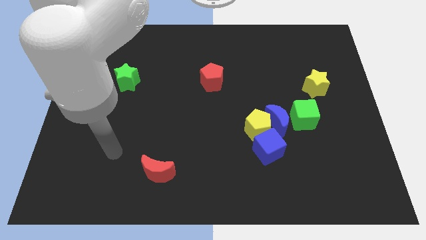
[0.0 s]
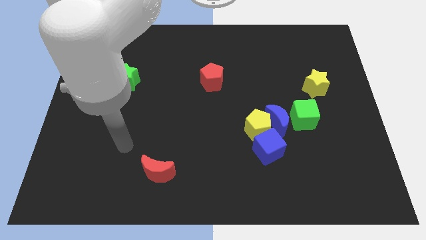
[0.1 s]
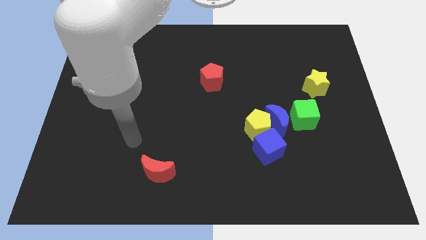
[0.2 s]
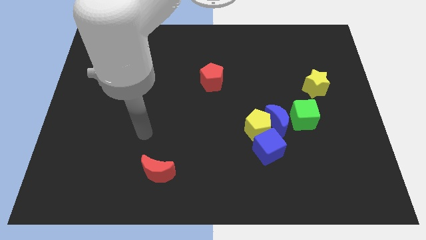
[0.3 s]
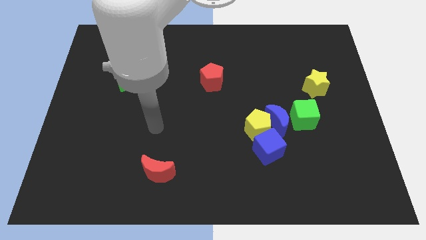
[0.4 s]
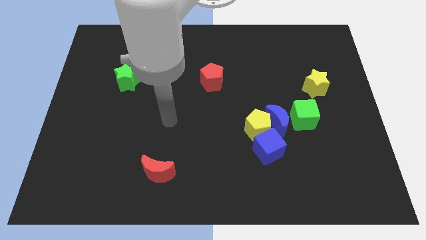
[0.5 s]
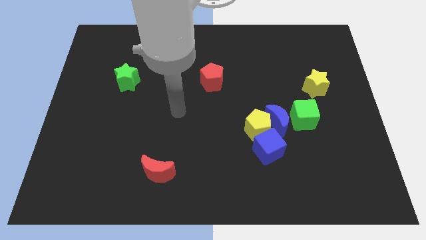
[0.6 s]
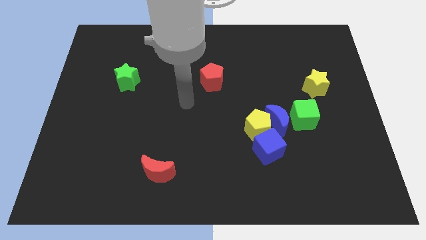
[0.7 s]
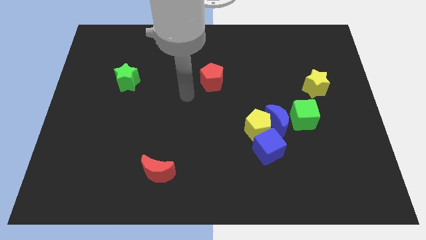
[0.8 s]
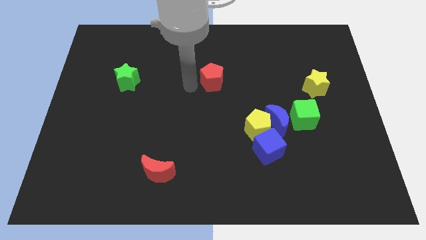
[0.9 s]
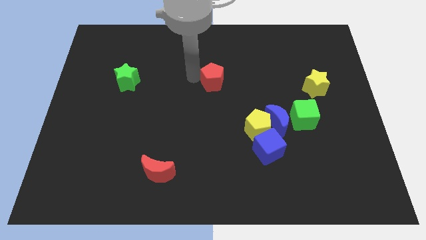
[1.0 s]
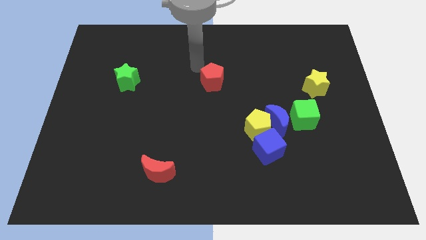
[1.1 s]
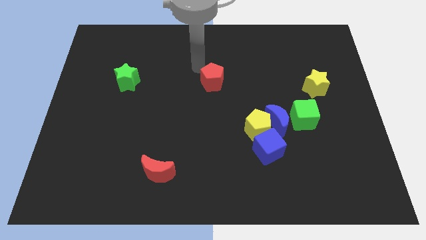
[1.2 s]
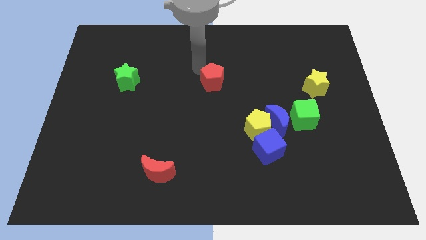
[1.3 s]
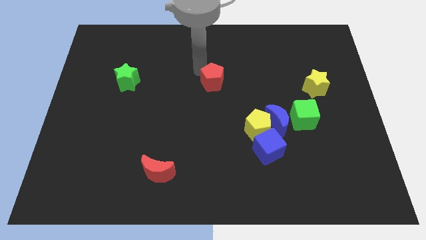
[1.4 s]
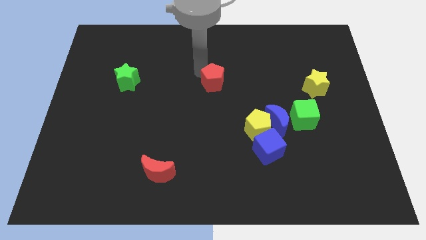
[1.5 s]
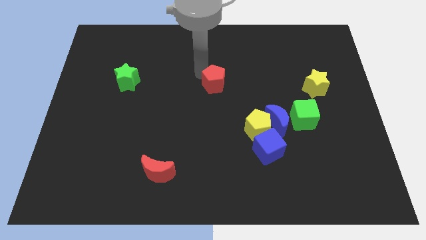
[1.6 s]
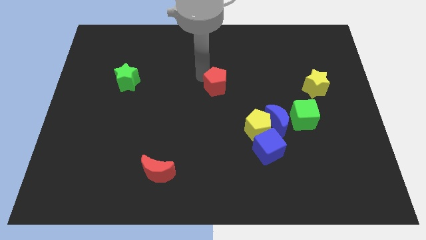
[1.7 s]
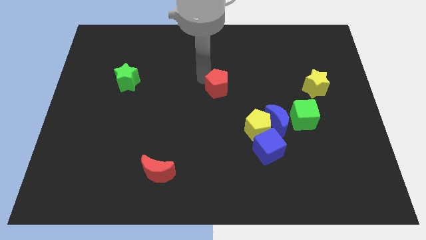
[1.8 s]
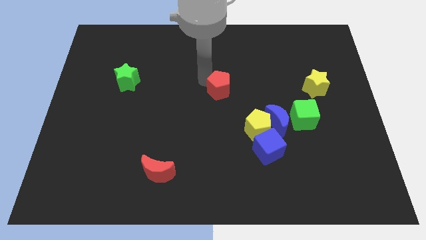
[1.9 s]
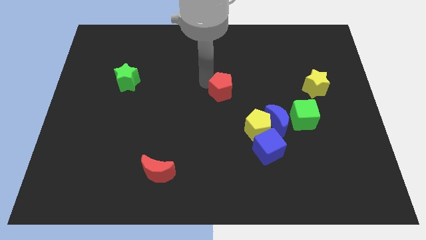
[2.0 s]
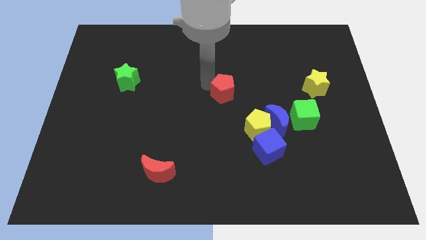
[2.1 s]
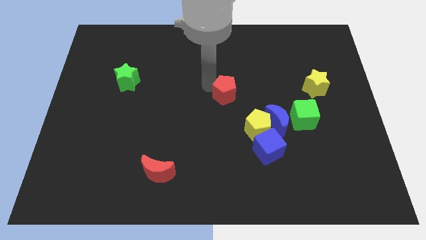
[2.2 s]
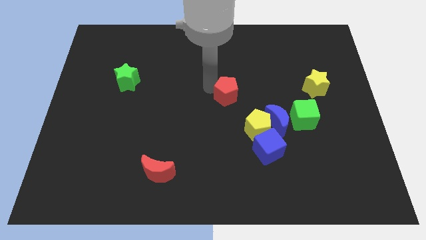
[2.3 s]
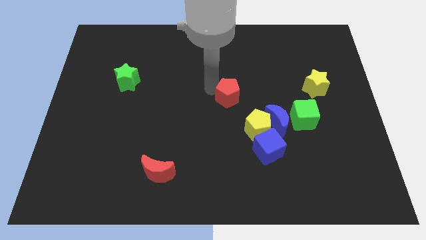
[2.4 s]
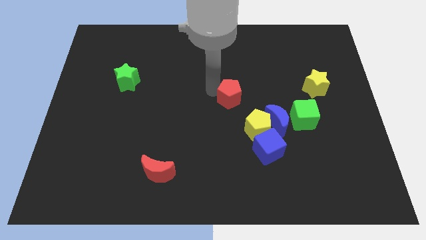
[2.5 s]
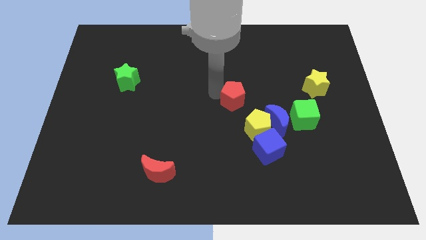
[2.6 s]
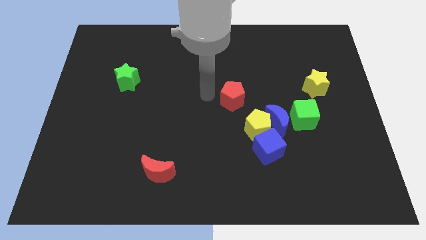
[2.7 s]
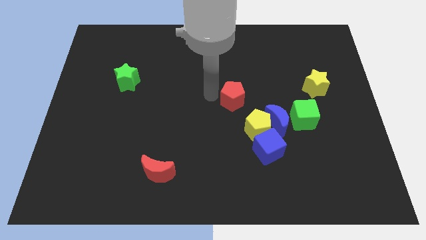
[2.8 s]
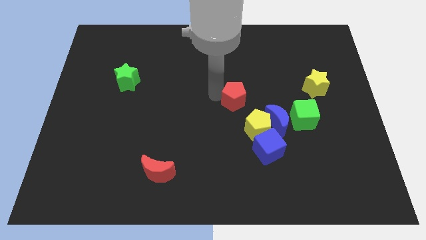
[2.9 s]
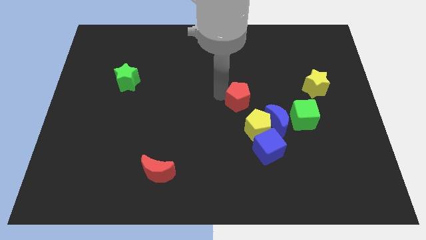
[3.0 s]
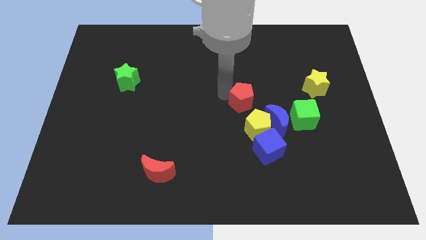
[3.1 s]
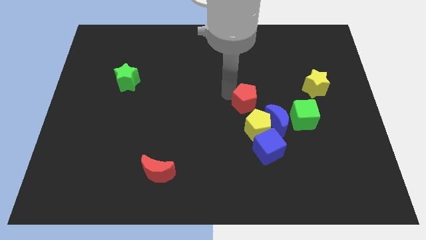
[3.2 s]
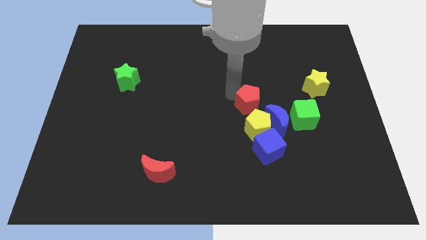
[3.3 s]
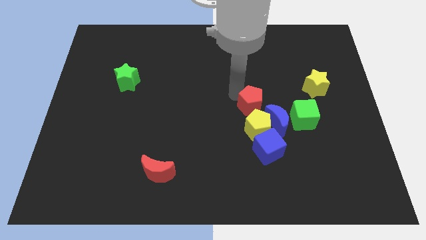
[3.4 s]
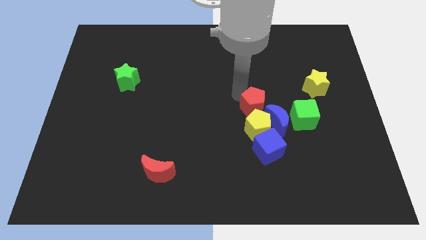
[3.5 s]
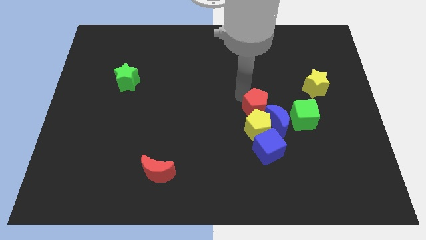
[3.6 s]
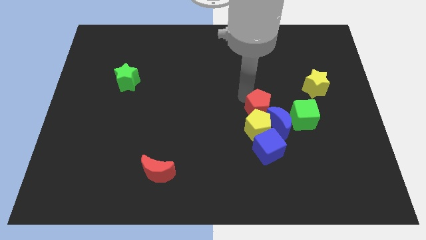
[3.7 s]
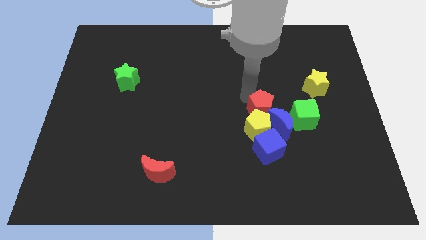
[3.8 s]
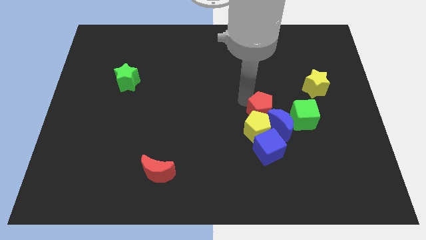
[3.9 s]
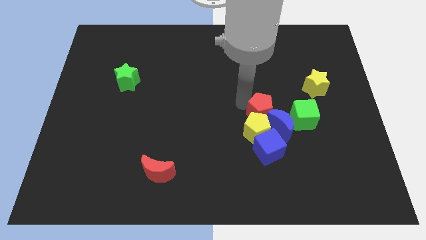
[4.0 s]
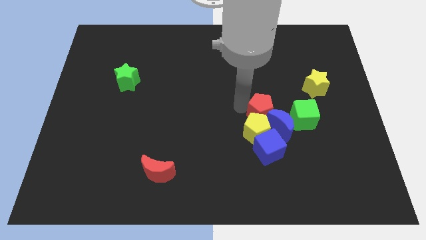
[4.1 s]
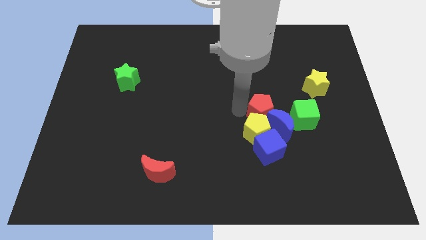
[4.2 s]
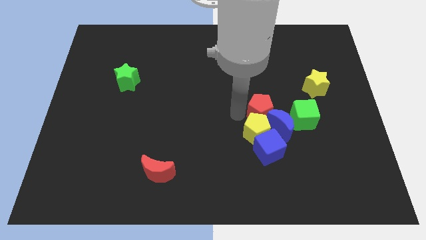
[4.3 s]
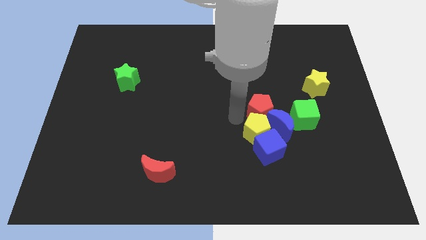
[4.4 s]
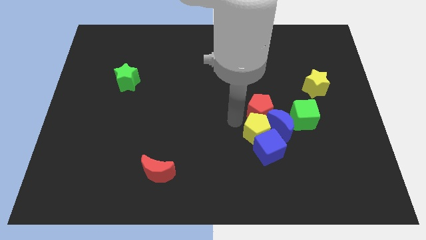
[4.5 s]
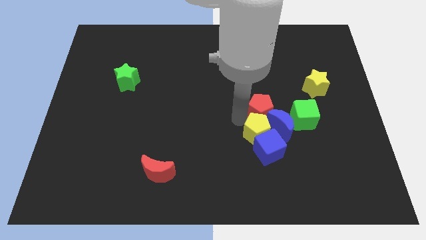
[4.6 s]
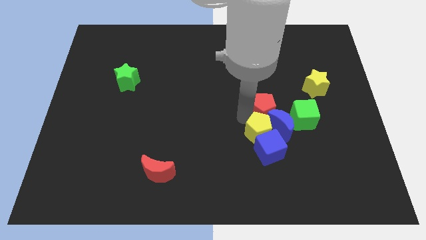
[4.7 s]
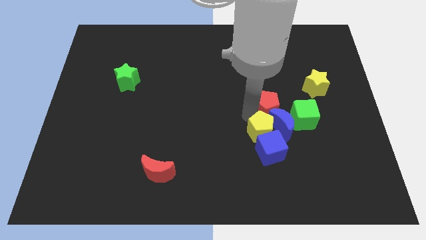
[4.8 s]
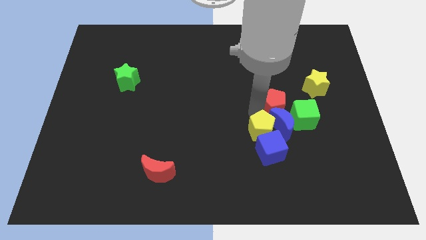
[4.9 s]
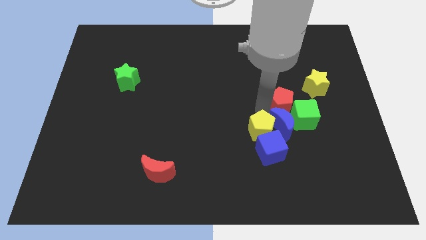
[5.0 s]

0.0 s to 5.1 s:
move the red pentagon to the bottom left of the yellow star

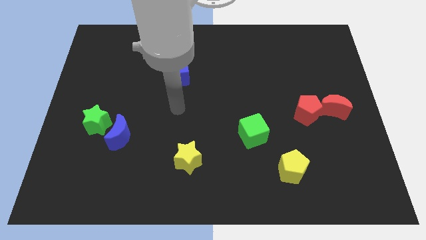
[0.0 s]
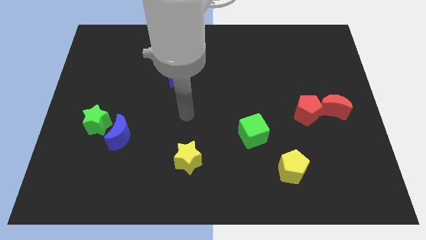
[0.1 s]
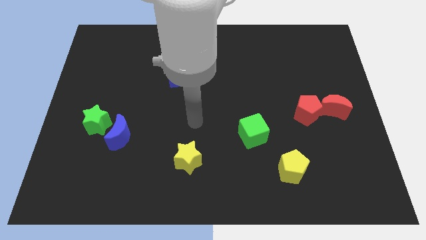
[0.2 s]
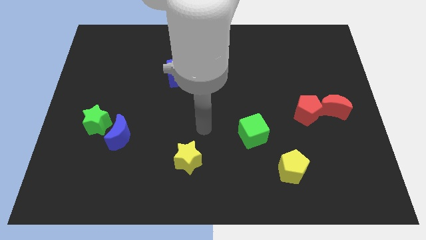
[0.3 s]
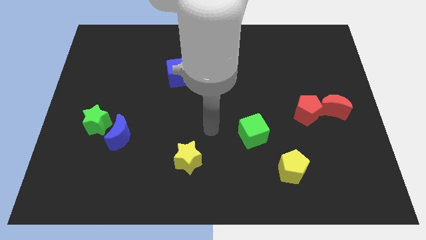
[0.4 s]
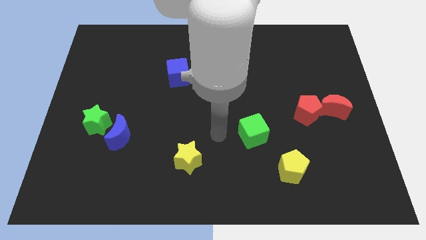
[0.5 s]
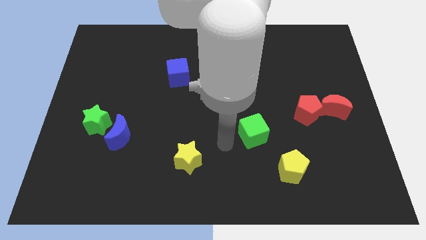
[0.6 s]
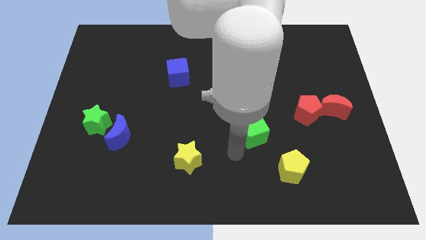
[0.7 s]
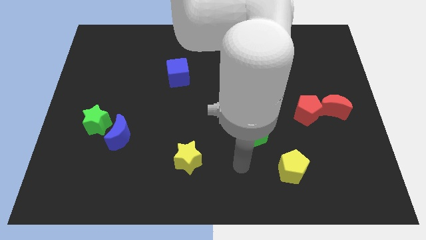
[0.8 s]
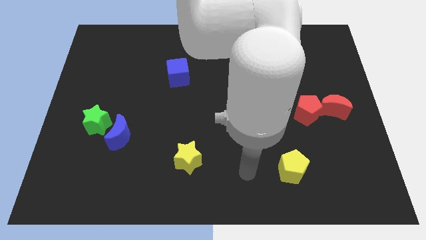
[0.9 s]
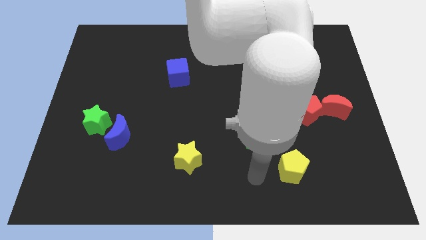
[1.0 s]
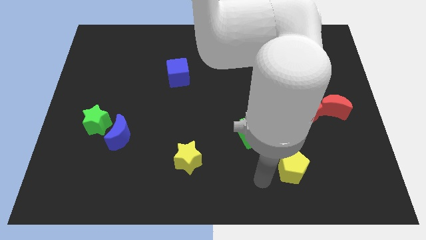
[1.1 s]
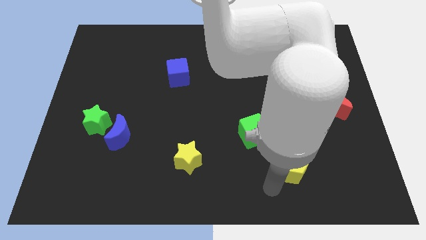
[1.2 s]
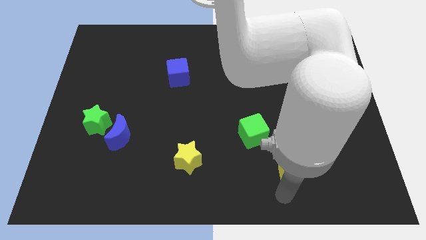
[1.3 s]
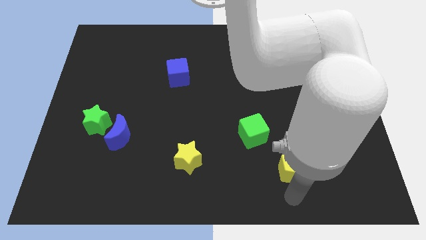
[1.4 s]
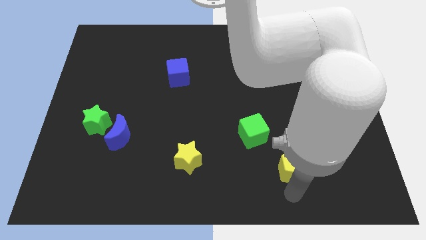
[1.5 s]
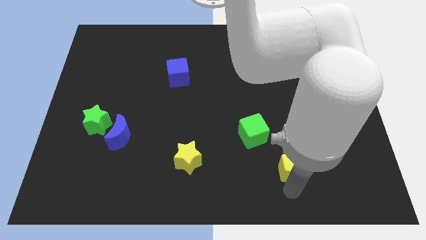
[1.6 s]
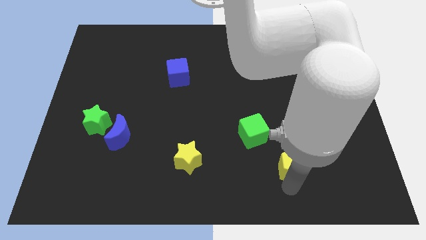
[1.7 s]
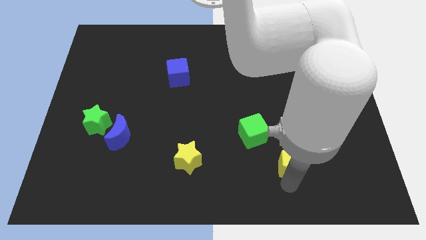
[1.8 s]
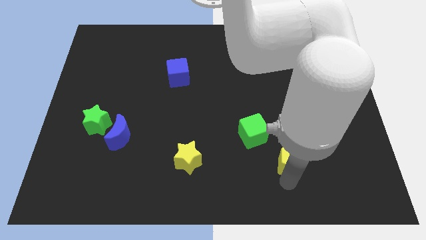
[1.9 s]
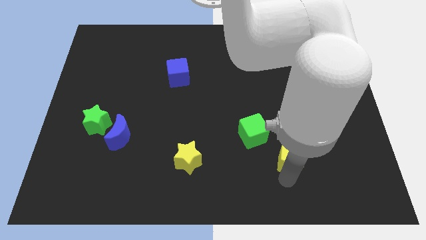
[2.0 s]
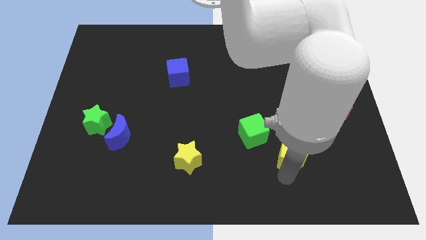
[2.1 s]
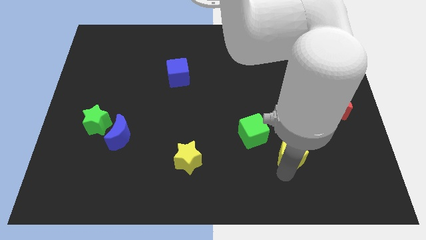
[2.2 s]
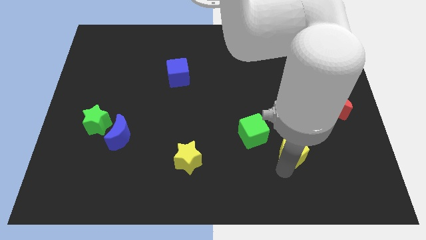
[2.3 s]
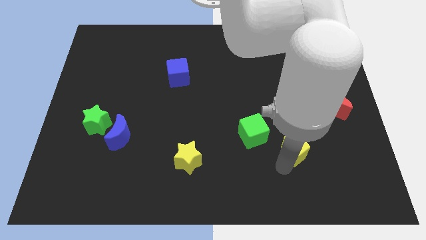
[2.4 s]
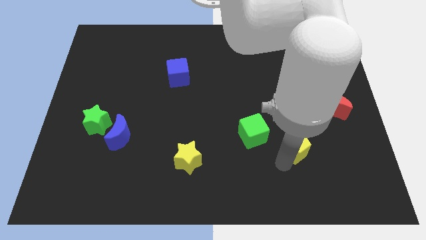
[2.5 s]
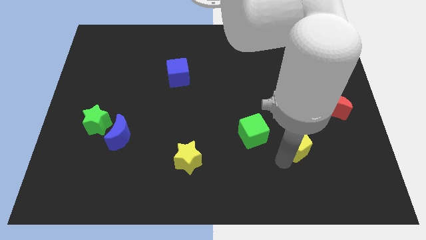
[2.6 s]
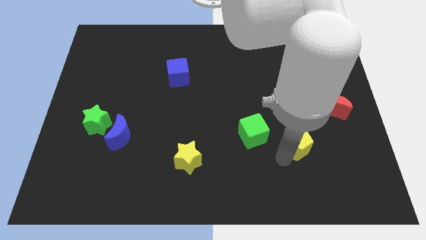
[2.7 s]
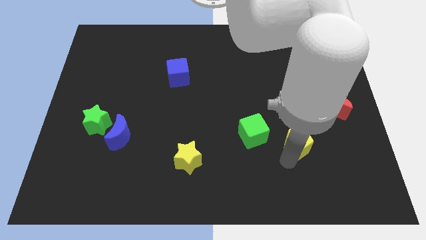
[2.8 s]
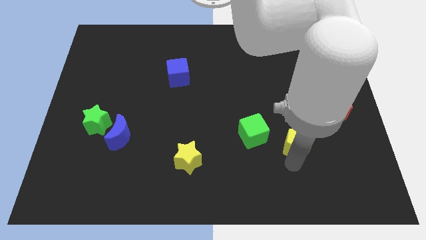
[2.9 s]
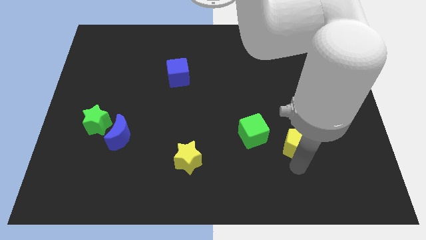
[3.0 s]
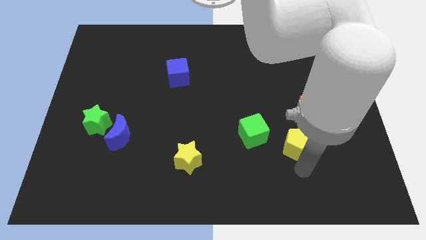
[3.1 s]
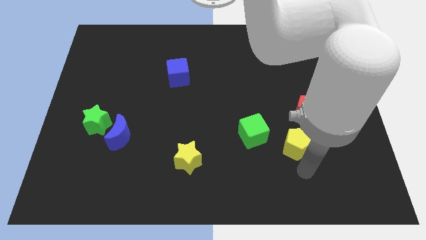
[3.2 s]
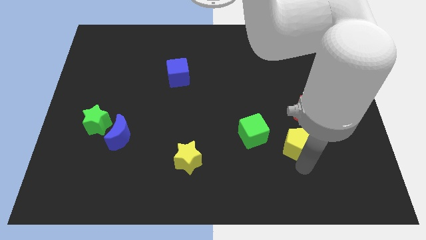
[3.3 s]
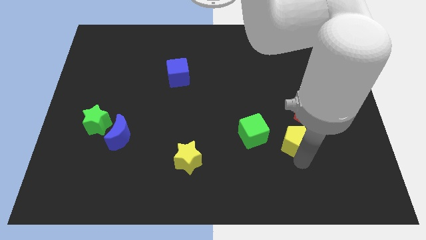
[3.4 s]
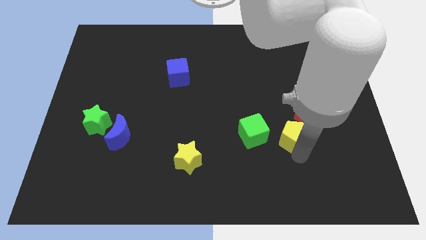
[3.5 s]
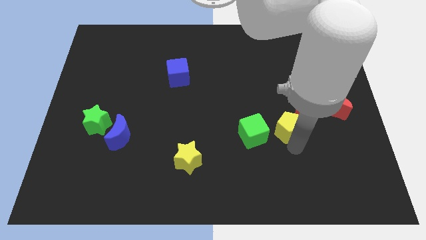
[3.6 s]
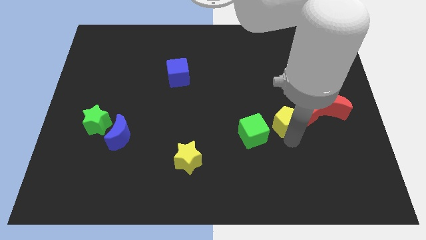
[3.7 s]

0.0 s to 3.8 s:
push the yellow pentagon left of the red moon
